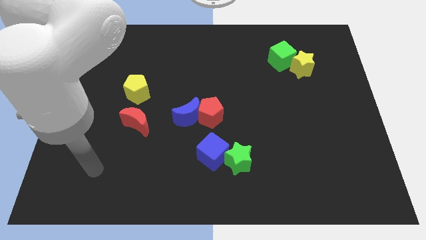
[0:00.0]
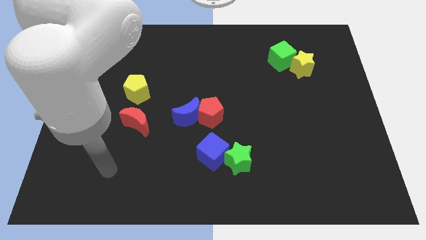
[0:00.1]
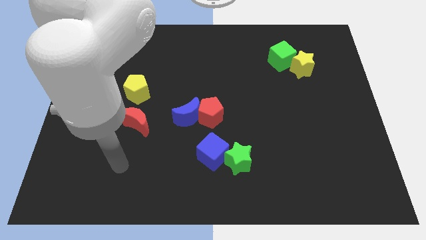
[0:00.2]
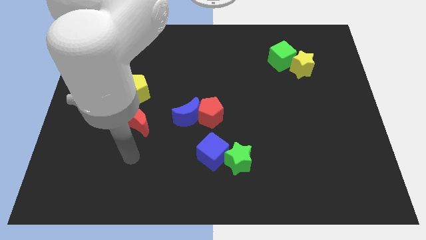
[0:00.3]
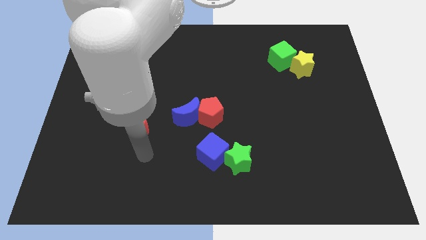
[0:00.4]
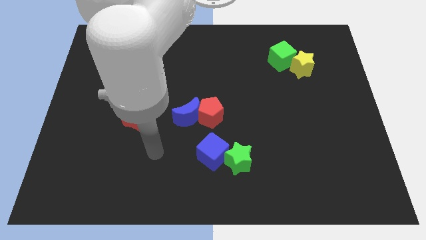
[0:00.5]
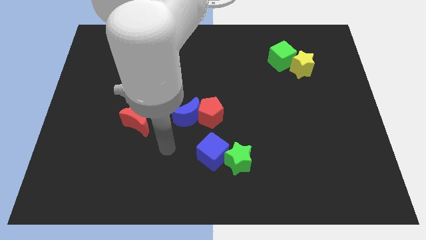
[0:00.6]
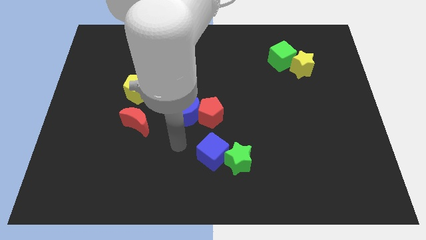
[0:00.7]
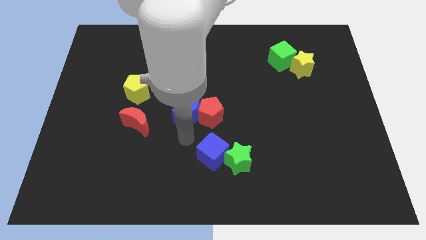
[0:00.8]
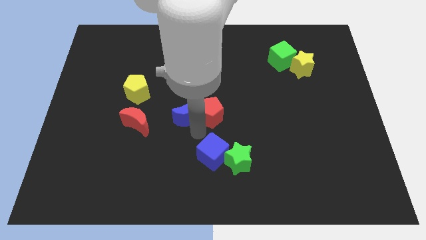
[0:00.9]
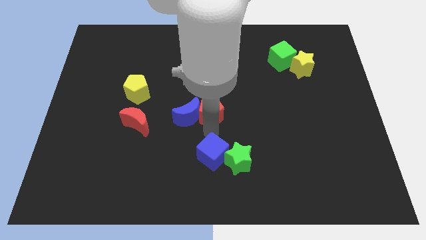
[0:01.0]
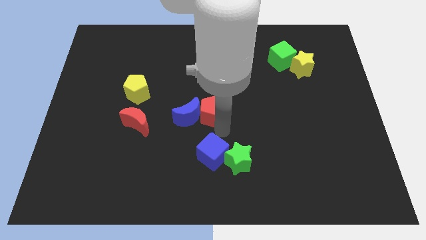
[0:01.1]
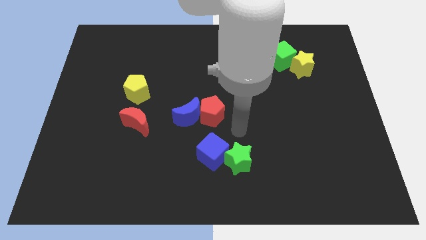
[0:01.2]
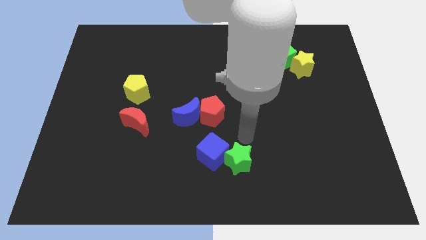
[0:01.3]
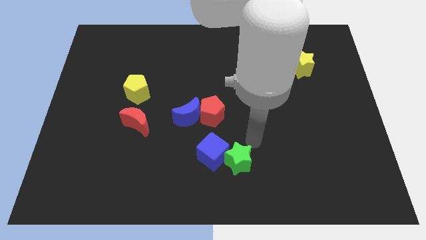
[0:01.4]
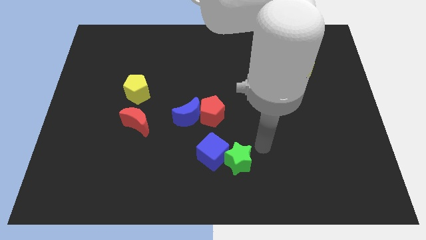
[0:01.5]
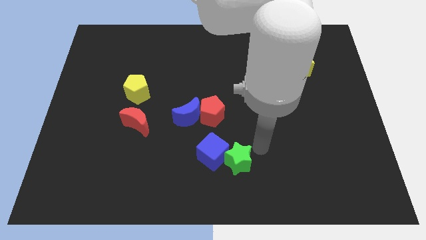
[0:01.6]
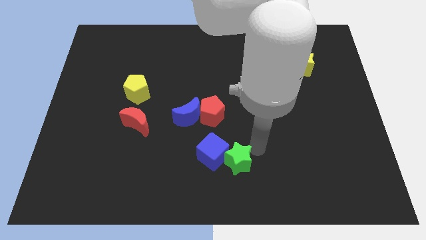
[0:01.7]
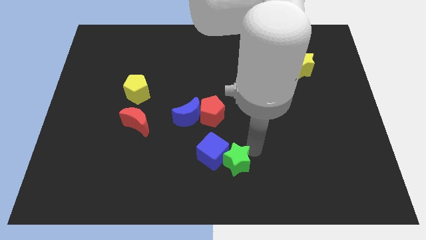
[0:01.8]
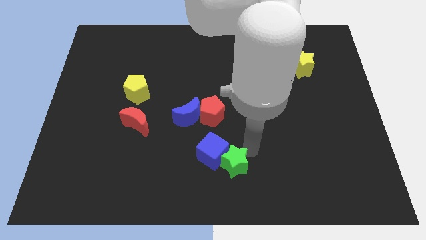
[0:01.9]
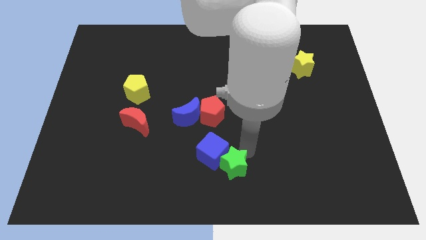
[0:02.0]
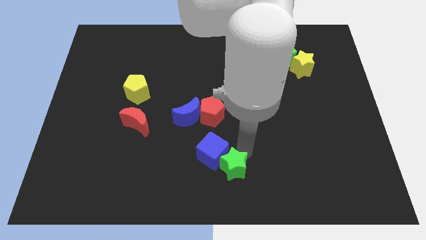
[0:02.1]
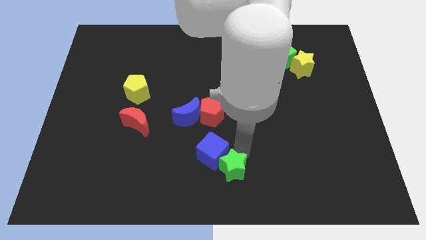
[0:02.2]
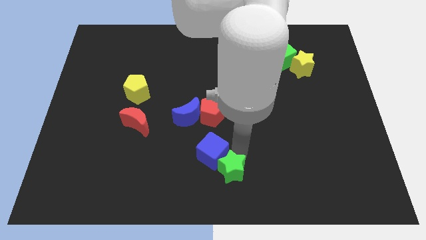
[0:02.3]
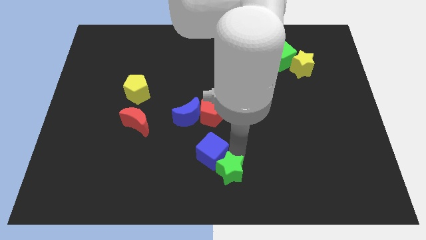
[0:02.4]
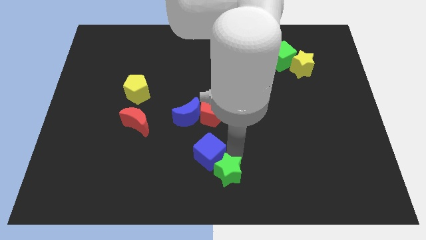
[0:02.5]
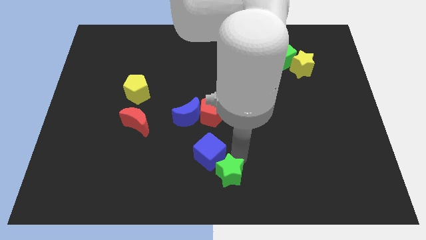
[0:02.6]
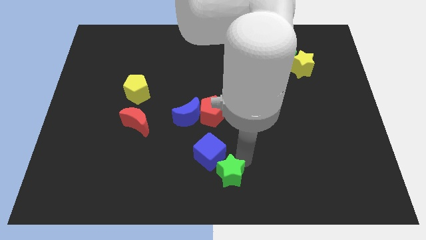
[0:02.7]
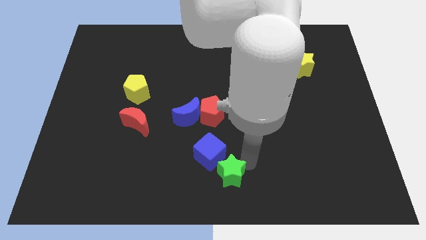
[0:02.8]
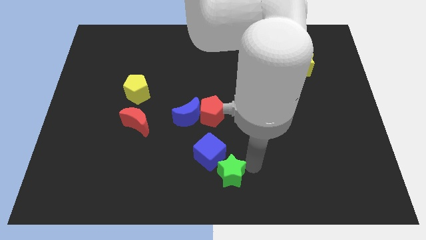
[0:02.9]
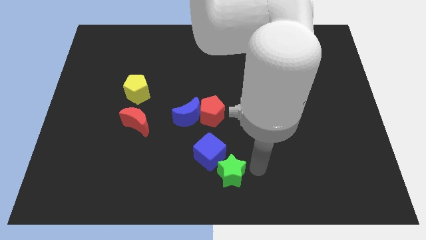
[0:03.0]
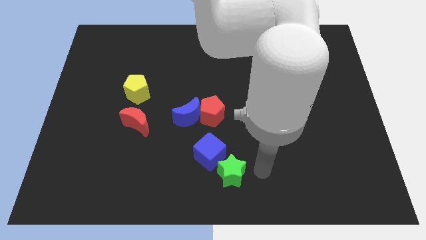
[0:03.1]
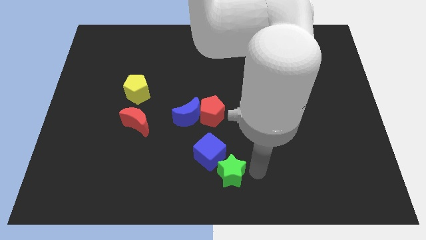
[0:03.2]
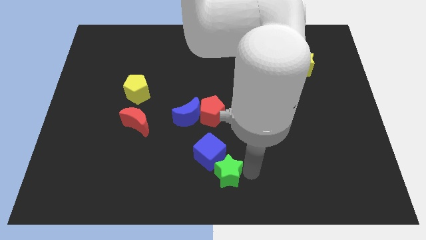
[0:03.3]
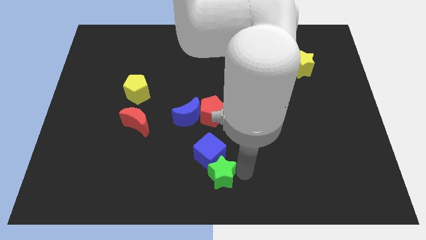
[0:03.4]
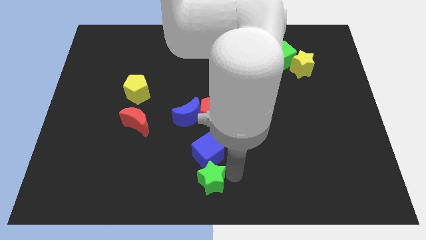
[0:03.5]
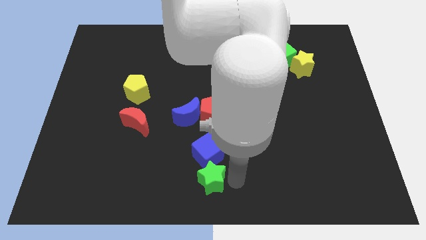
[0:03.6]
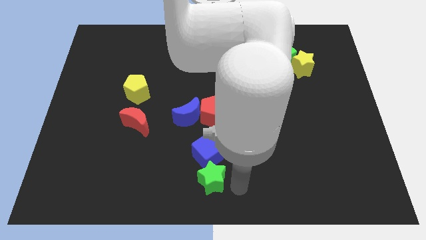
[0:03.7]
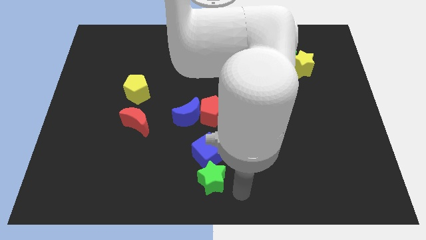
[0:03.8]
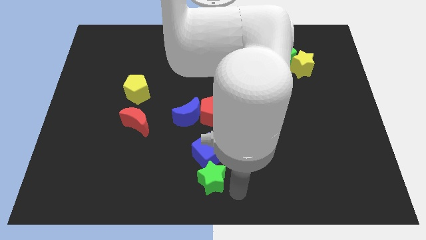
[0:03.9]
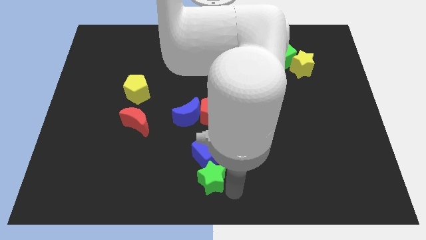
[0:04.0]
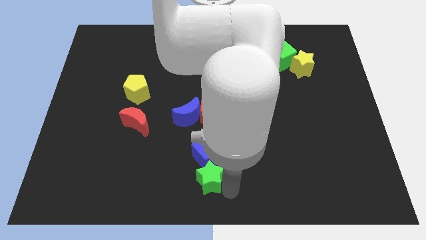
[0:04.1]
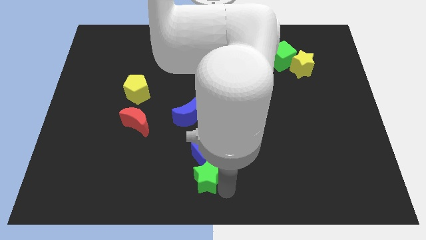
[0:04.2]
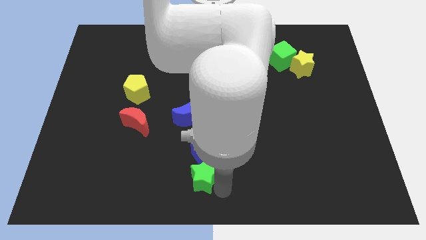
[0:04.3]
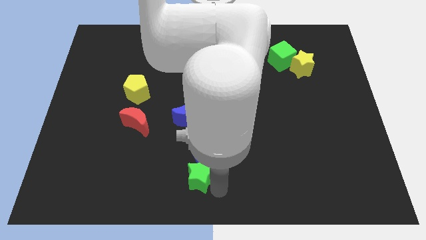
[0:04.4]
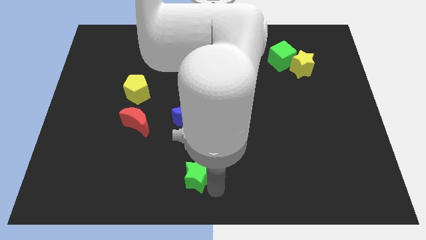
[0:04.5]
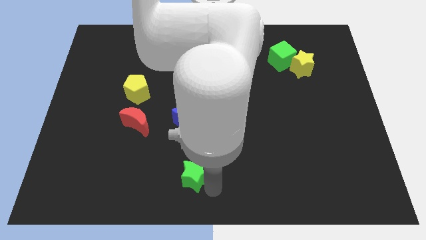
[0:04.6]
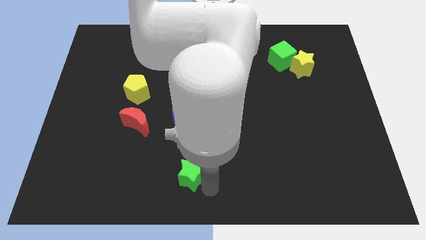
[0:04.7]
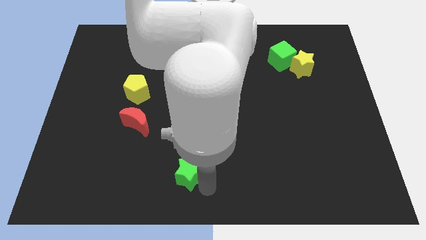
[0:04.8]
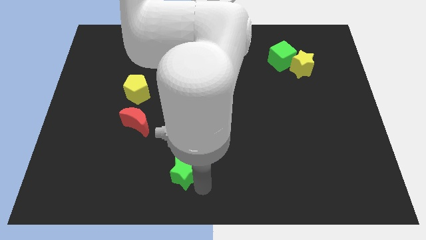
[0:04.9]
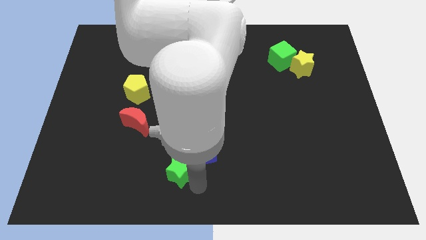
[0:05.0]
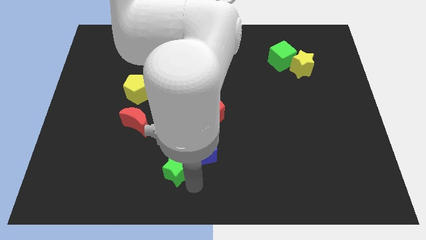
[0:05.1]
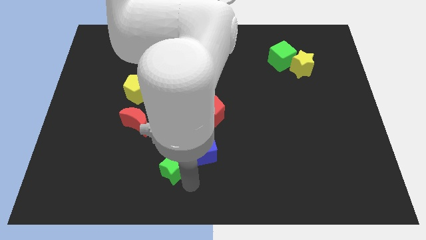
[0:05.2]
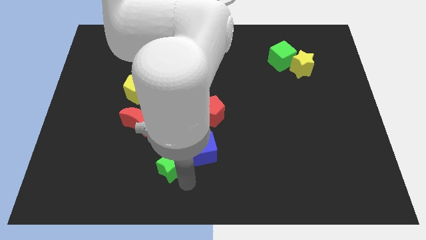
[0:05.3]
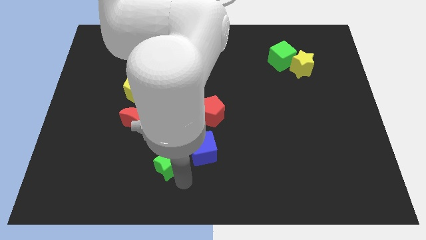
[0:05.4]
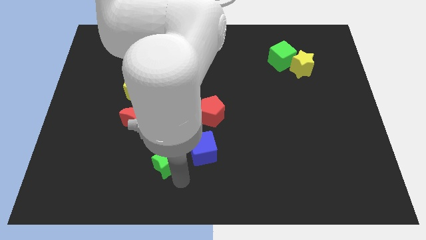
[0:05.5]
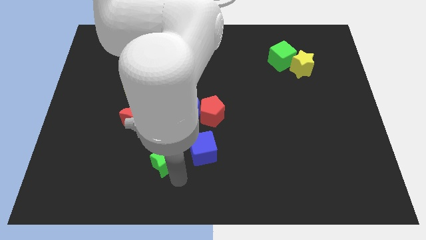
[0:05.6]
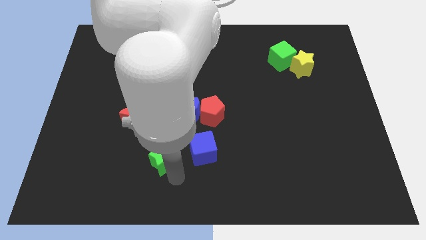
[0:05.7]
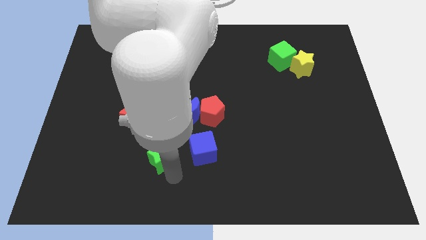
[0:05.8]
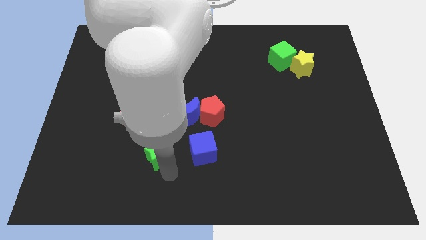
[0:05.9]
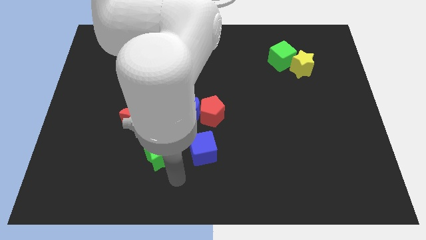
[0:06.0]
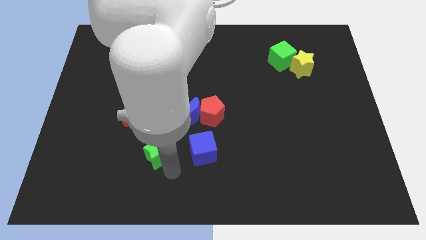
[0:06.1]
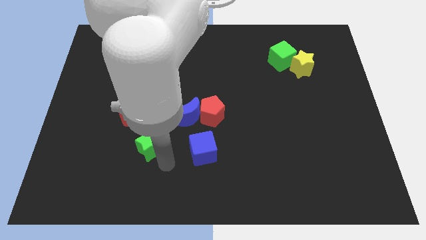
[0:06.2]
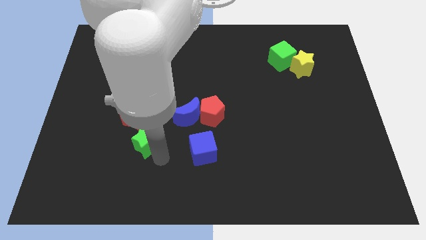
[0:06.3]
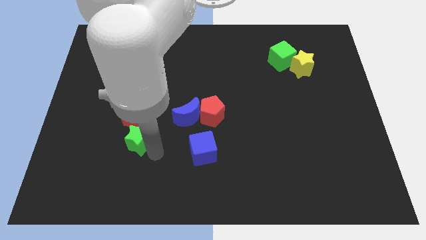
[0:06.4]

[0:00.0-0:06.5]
push the green star towards the red moon
